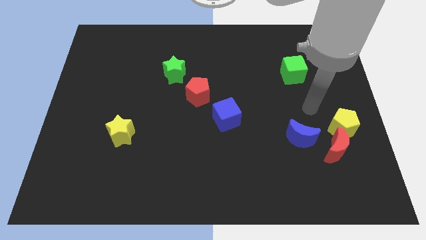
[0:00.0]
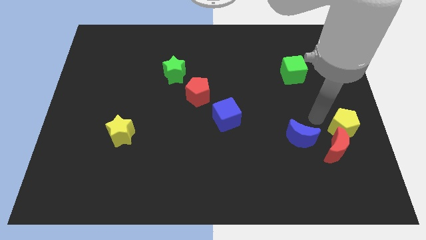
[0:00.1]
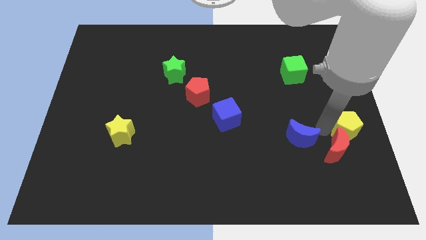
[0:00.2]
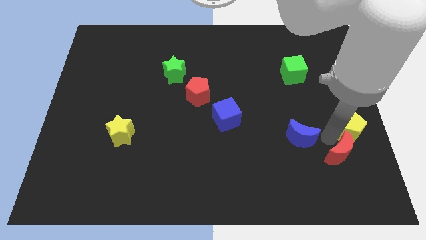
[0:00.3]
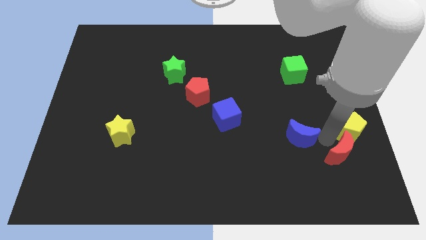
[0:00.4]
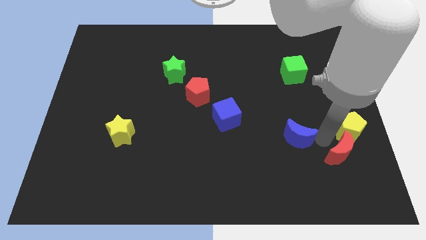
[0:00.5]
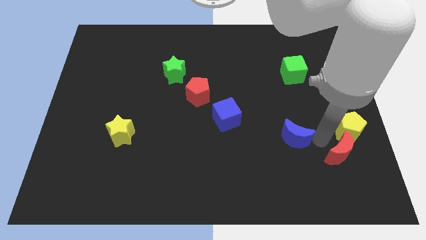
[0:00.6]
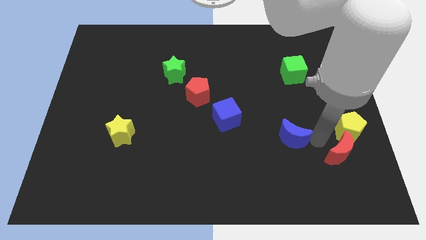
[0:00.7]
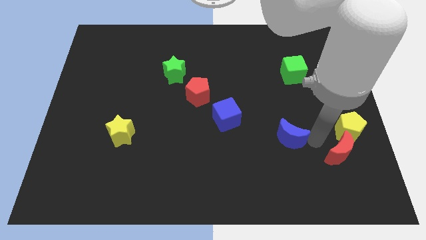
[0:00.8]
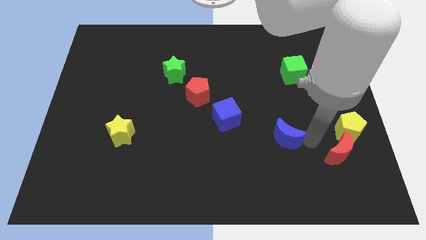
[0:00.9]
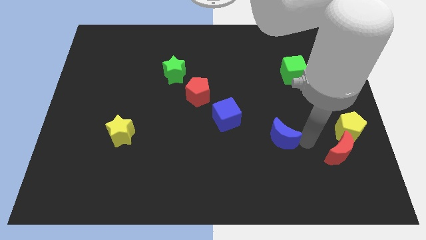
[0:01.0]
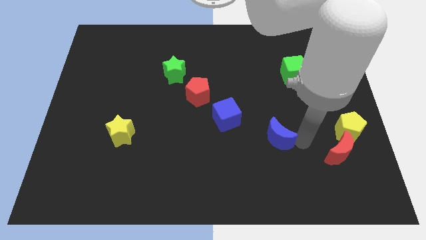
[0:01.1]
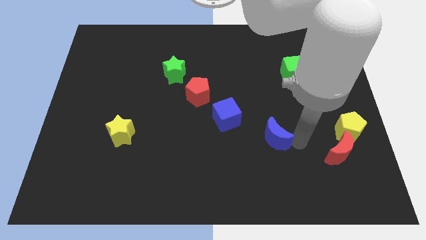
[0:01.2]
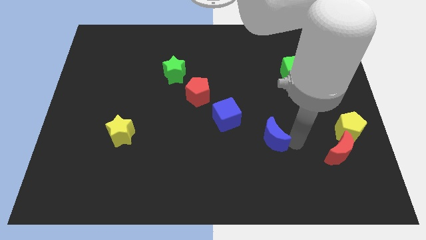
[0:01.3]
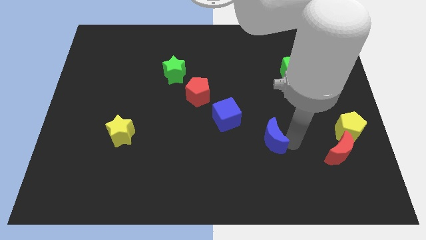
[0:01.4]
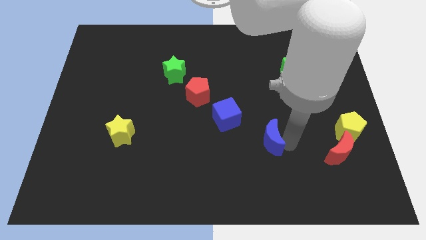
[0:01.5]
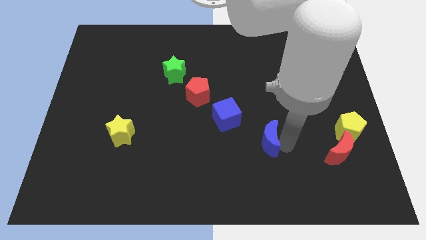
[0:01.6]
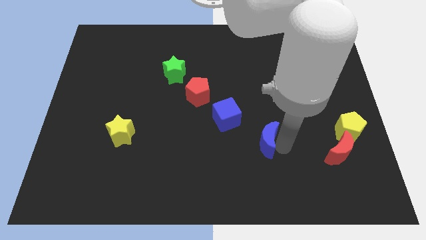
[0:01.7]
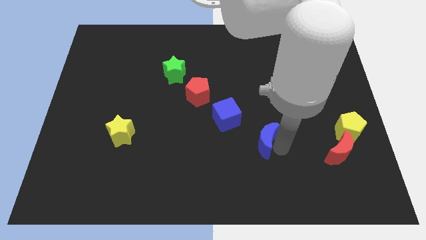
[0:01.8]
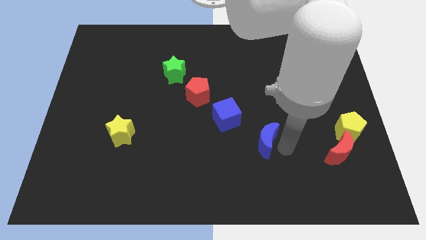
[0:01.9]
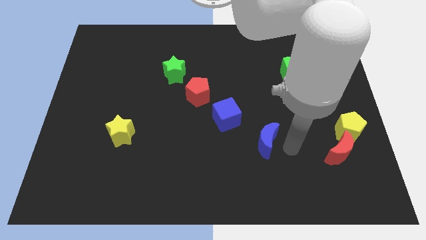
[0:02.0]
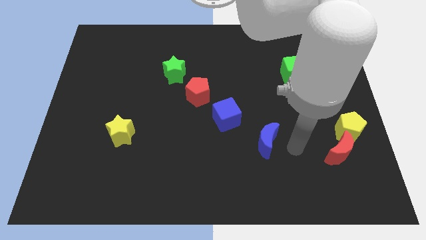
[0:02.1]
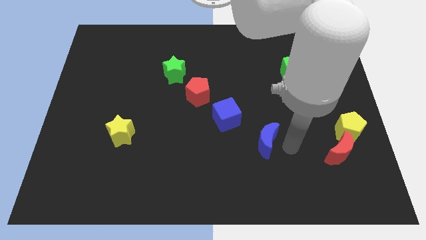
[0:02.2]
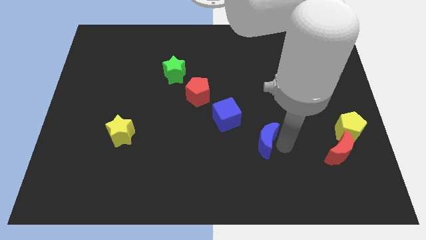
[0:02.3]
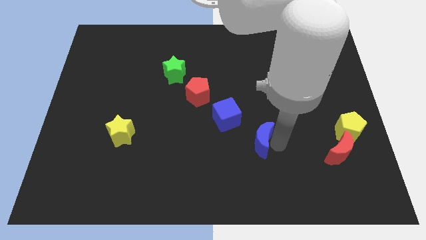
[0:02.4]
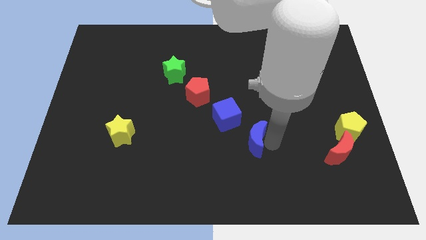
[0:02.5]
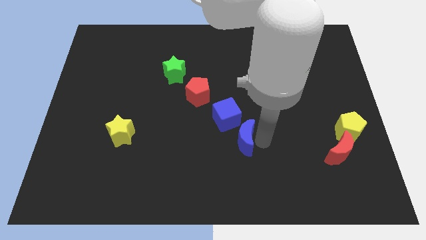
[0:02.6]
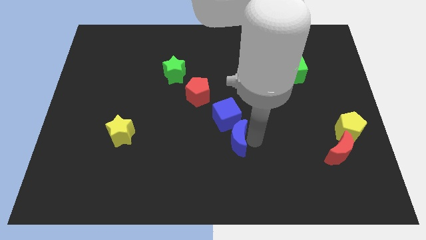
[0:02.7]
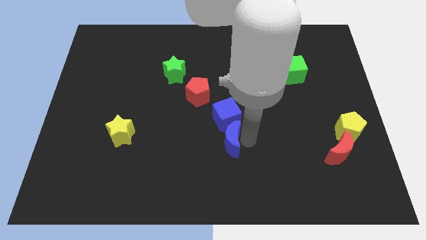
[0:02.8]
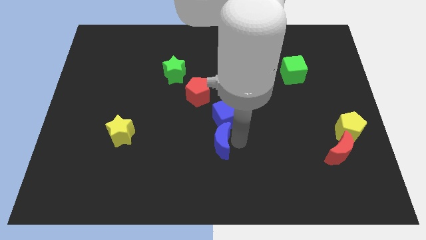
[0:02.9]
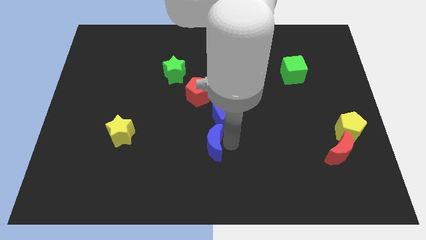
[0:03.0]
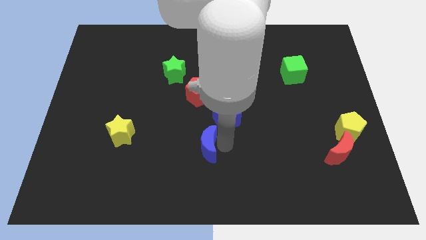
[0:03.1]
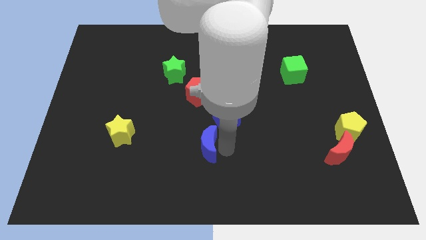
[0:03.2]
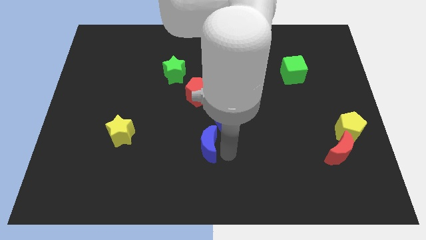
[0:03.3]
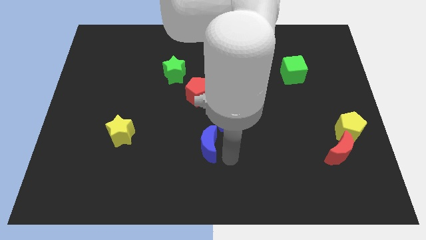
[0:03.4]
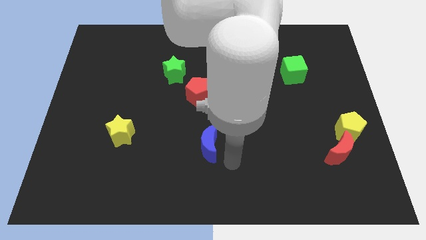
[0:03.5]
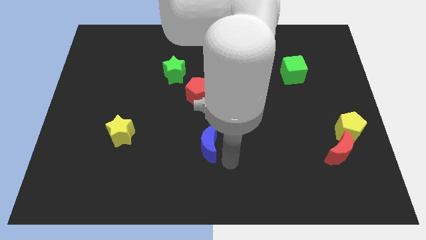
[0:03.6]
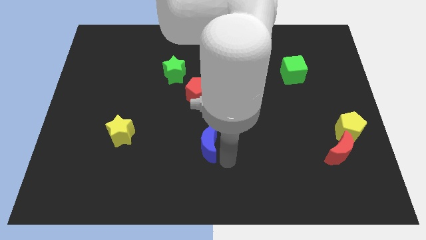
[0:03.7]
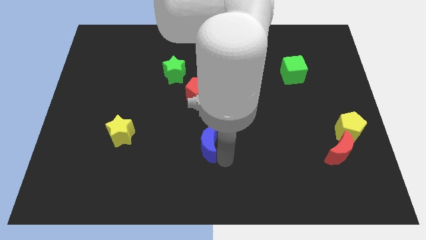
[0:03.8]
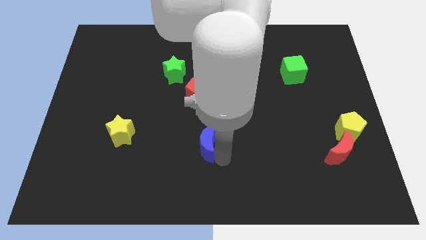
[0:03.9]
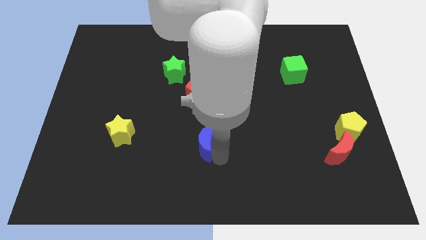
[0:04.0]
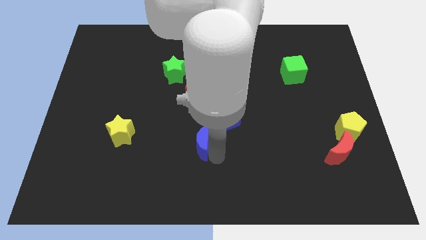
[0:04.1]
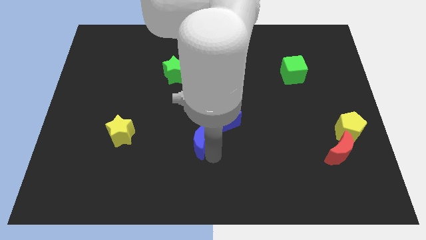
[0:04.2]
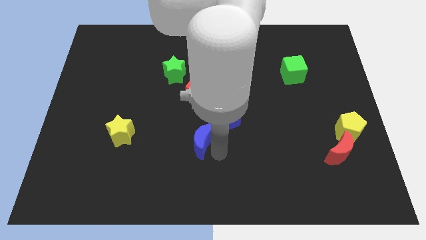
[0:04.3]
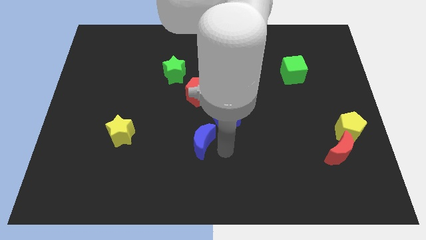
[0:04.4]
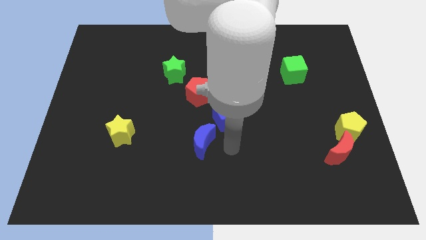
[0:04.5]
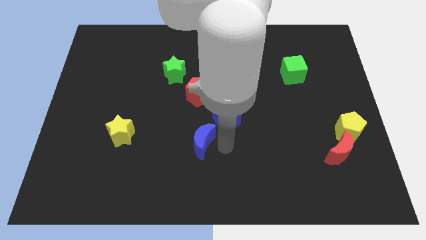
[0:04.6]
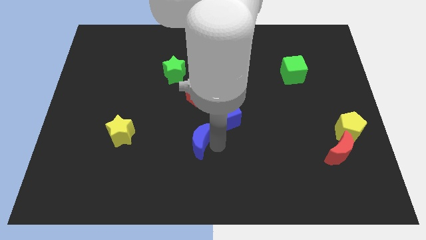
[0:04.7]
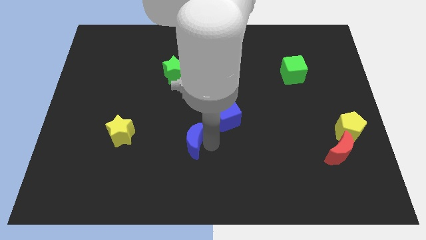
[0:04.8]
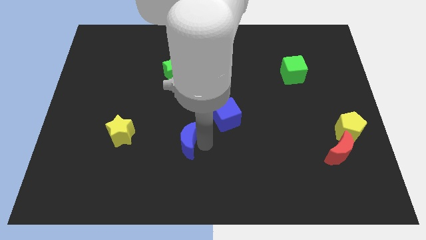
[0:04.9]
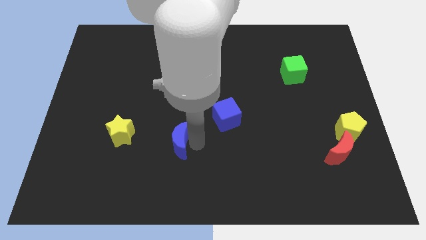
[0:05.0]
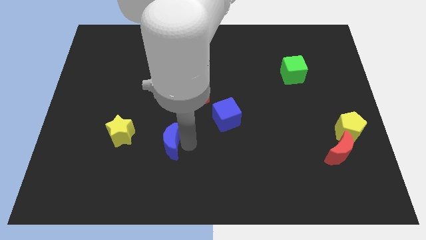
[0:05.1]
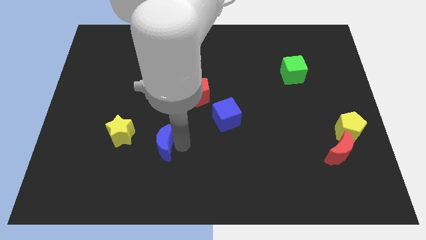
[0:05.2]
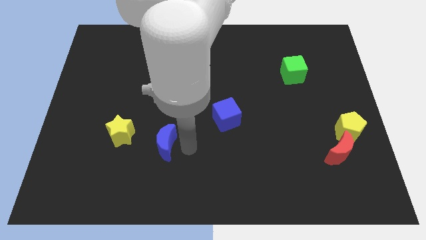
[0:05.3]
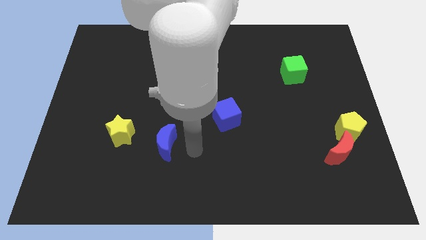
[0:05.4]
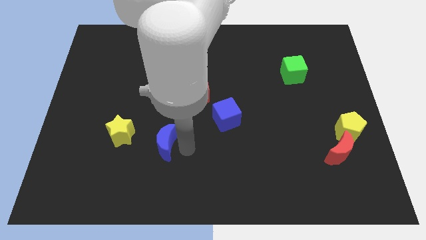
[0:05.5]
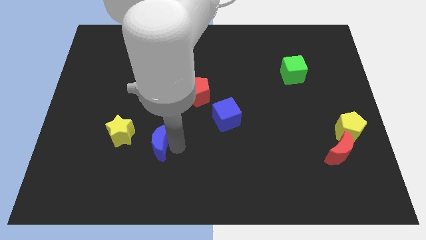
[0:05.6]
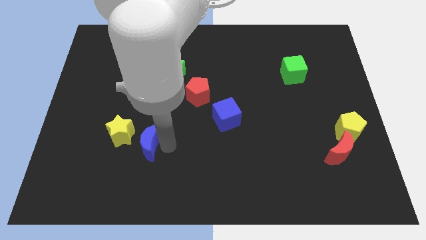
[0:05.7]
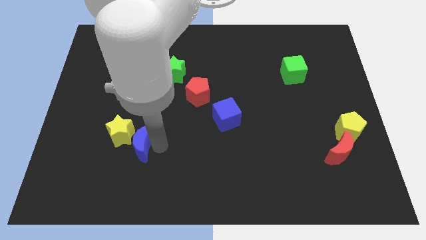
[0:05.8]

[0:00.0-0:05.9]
push the blue moon next to the yellow star

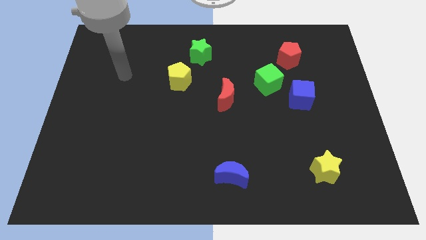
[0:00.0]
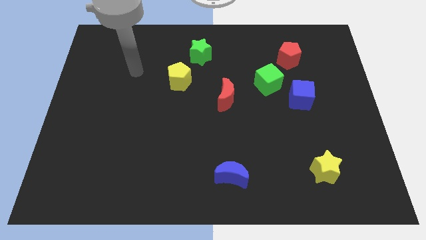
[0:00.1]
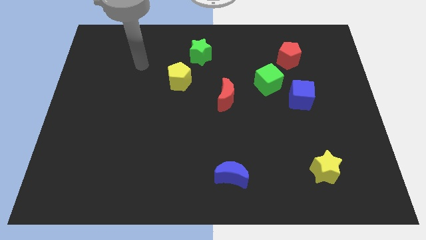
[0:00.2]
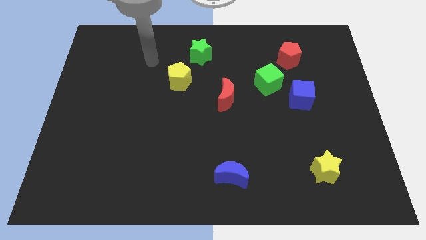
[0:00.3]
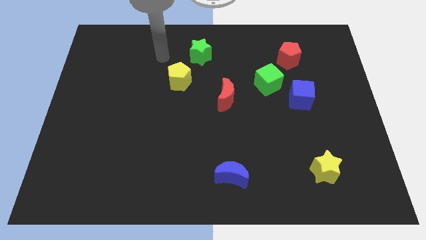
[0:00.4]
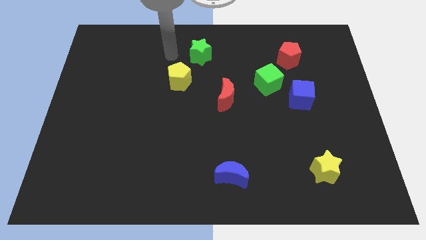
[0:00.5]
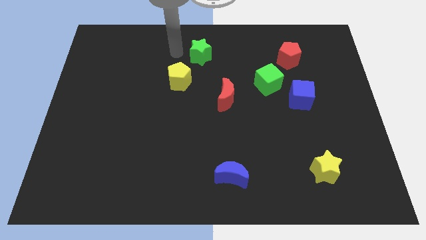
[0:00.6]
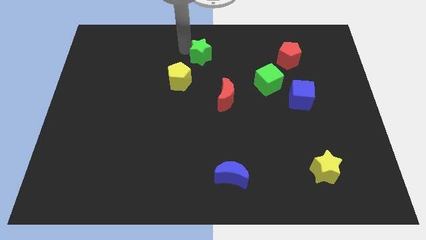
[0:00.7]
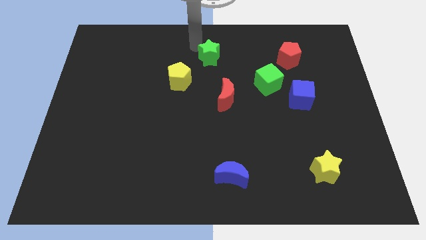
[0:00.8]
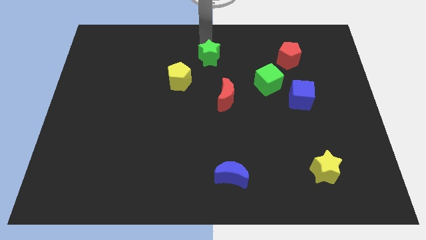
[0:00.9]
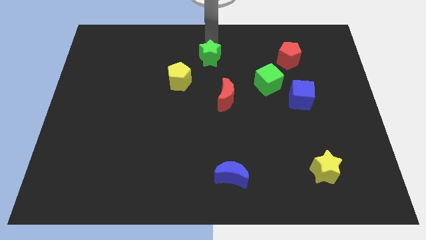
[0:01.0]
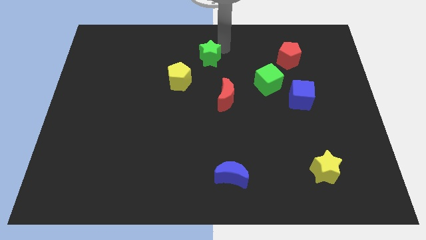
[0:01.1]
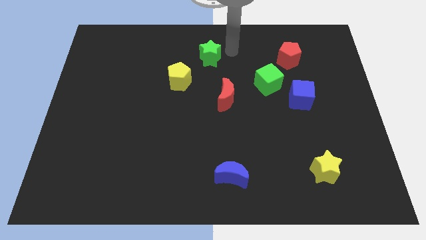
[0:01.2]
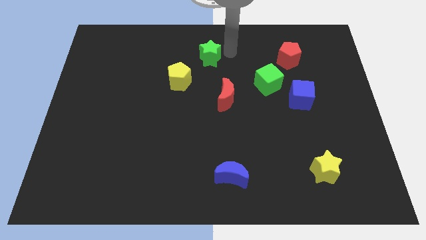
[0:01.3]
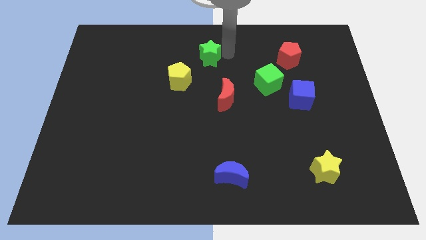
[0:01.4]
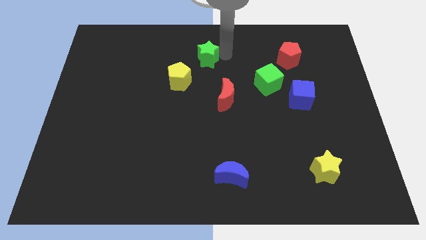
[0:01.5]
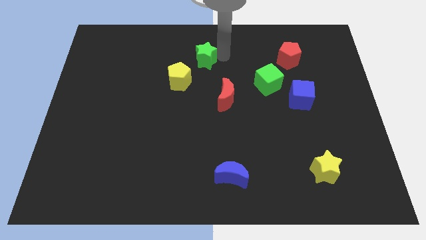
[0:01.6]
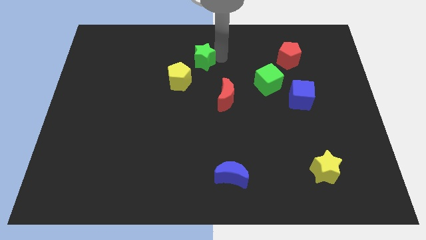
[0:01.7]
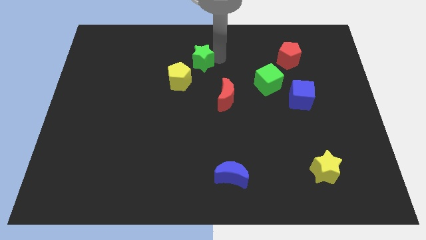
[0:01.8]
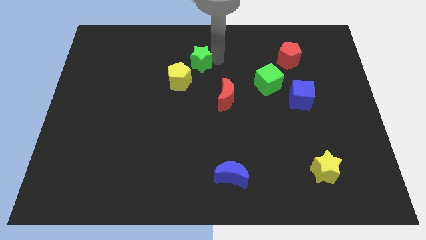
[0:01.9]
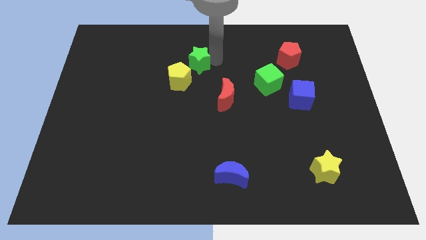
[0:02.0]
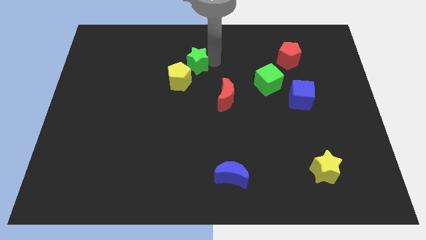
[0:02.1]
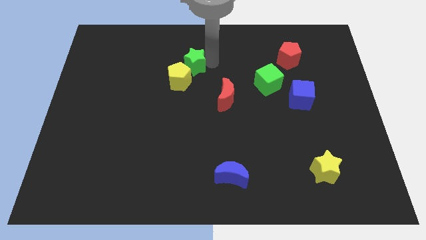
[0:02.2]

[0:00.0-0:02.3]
move the green star to the yellow pentagon
